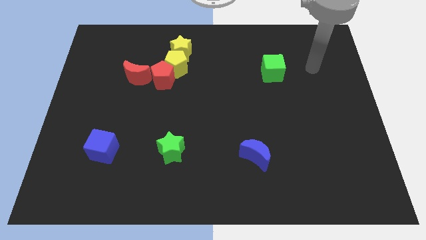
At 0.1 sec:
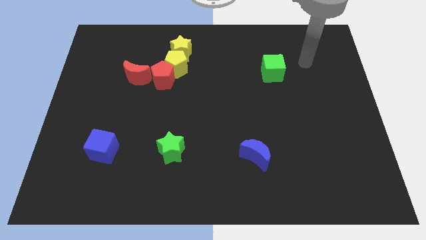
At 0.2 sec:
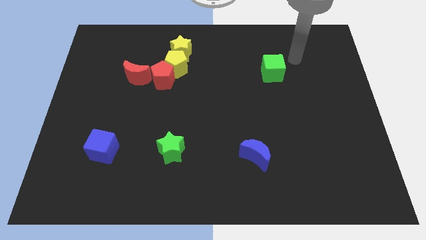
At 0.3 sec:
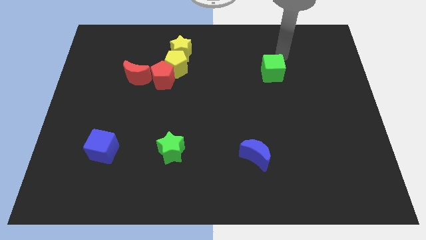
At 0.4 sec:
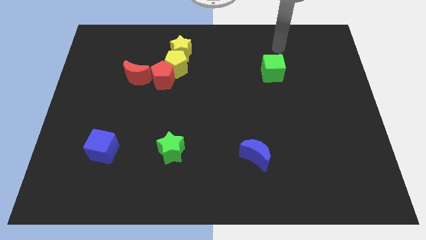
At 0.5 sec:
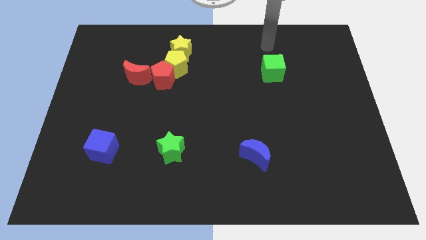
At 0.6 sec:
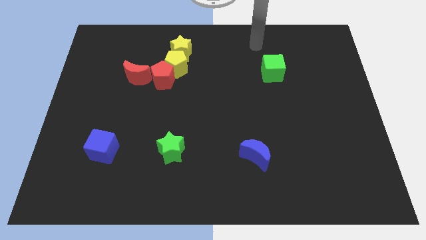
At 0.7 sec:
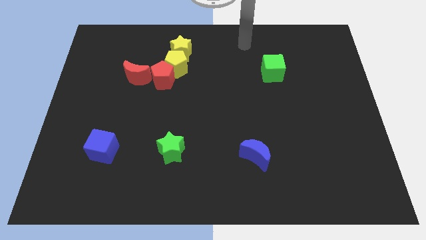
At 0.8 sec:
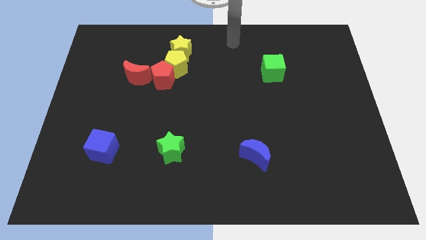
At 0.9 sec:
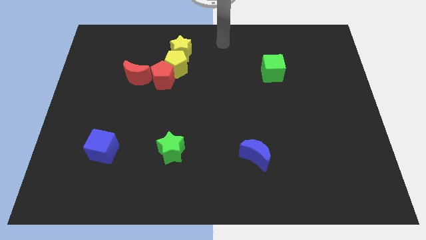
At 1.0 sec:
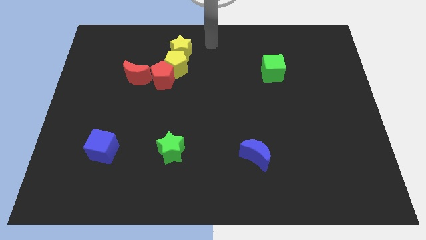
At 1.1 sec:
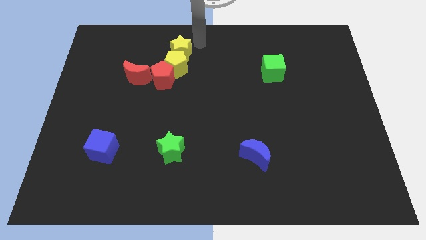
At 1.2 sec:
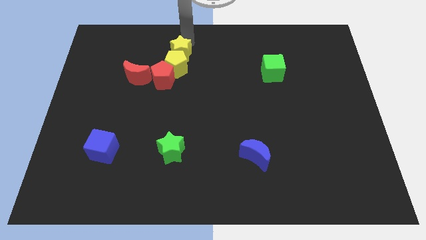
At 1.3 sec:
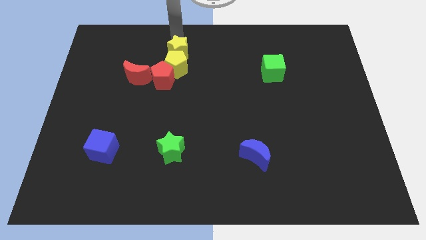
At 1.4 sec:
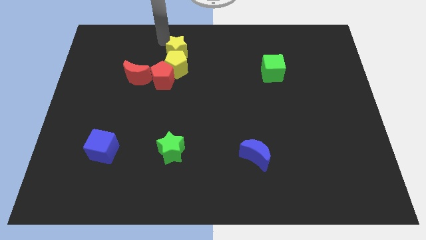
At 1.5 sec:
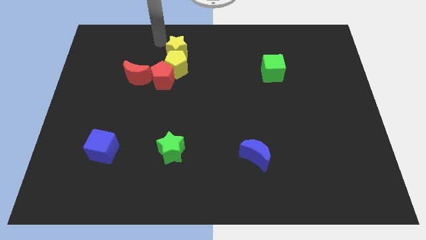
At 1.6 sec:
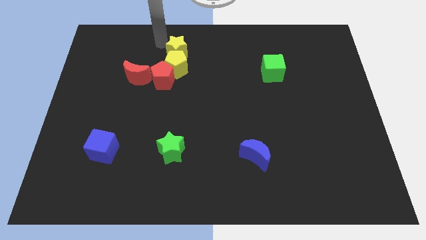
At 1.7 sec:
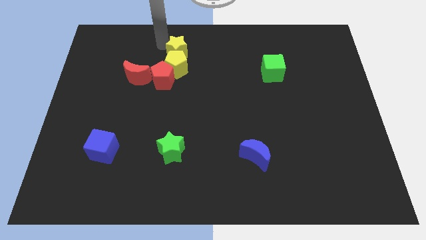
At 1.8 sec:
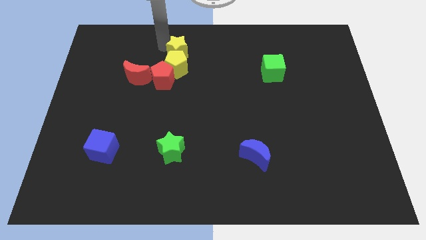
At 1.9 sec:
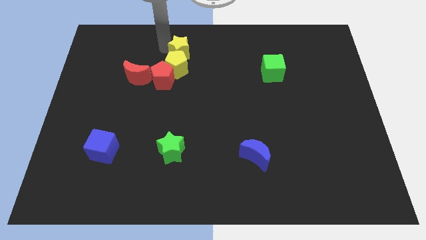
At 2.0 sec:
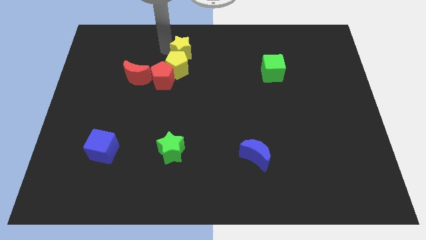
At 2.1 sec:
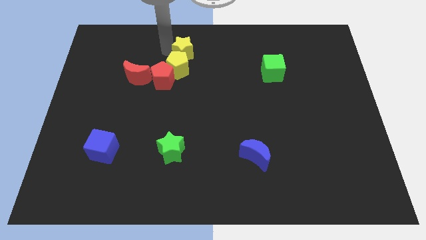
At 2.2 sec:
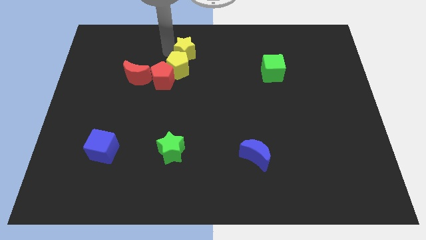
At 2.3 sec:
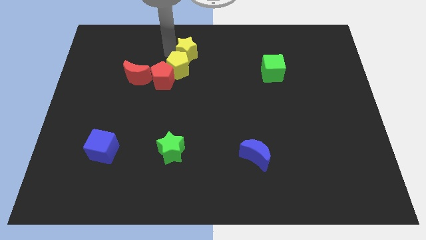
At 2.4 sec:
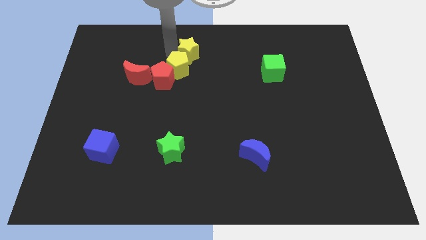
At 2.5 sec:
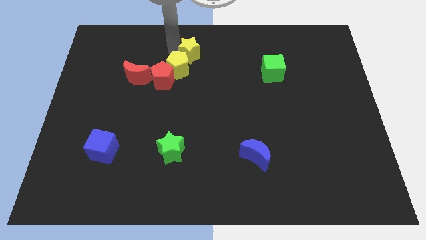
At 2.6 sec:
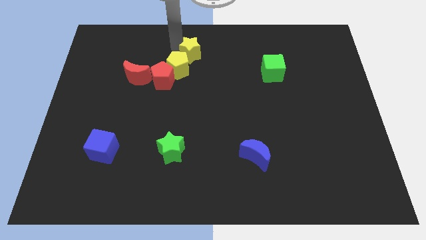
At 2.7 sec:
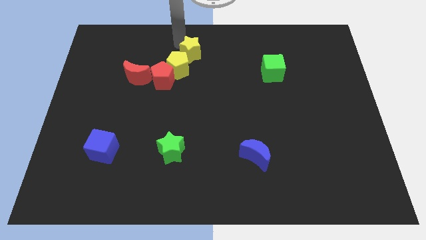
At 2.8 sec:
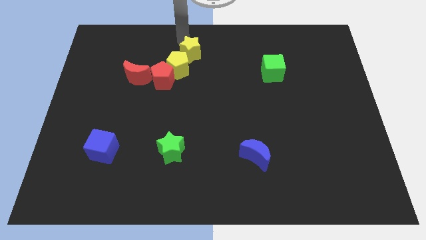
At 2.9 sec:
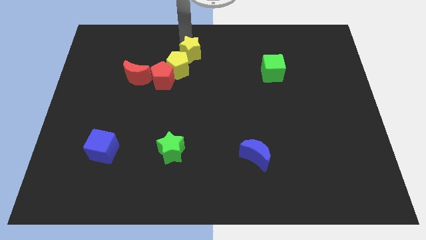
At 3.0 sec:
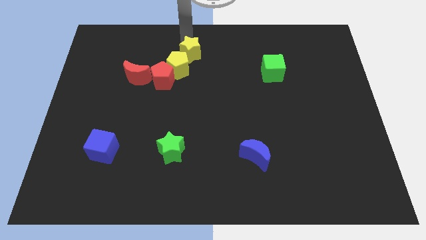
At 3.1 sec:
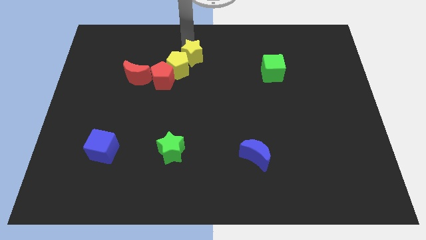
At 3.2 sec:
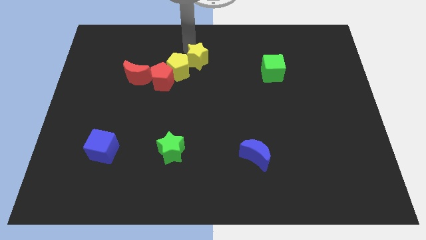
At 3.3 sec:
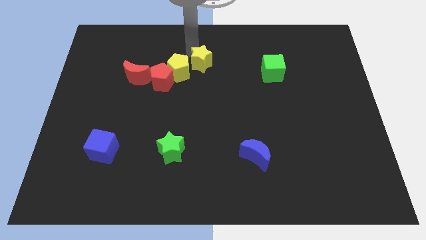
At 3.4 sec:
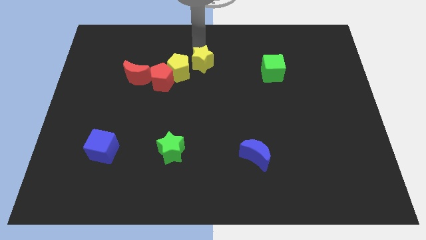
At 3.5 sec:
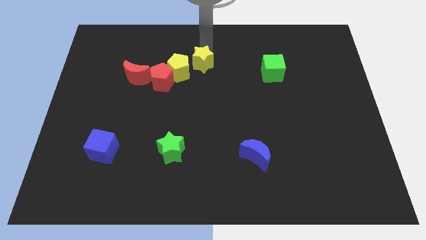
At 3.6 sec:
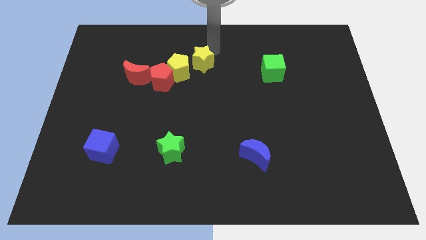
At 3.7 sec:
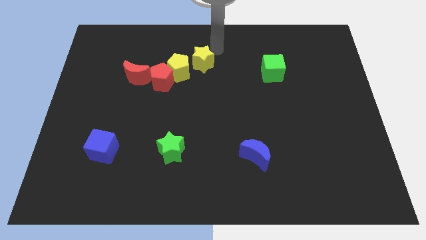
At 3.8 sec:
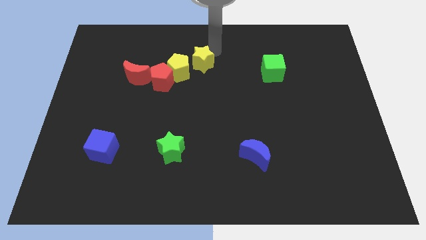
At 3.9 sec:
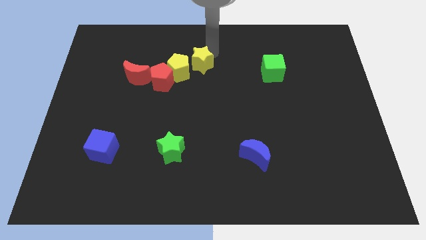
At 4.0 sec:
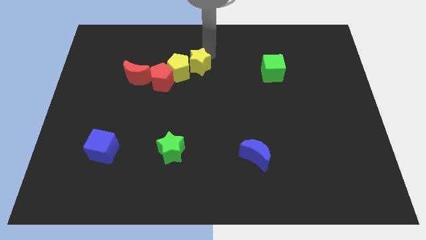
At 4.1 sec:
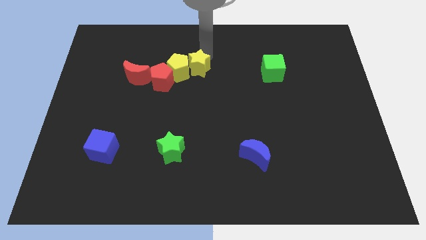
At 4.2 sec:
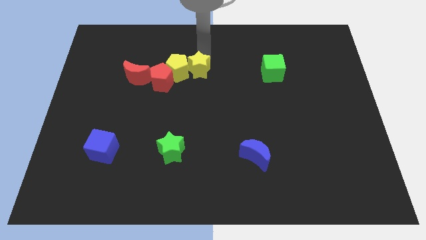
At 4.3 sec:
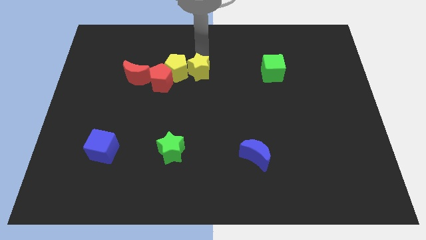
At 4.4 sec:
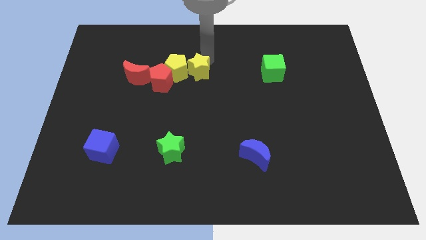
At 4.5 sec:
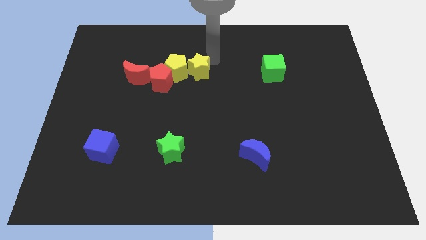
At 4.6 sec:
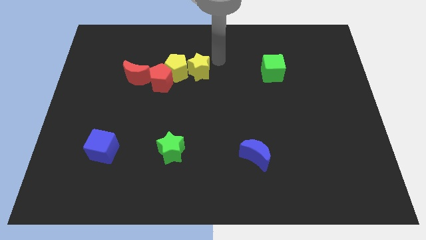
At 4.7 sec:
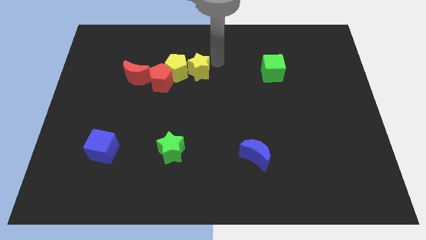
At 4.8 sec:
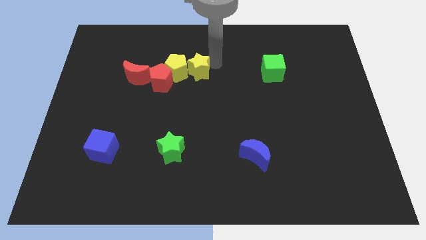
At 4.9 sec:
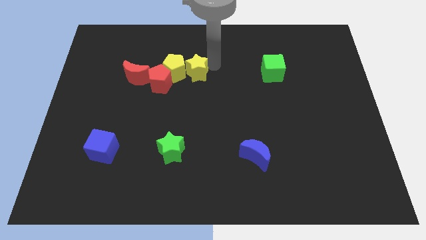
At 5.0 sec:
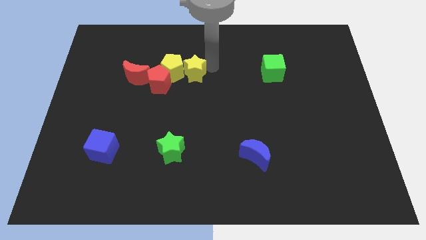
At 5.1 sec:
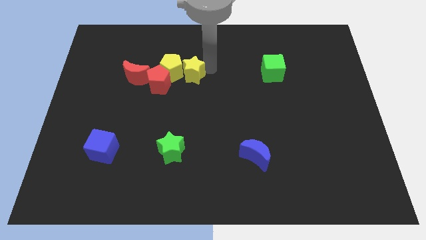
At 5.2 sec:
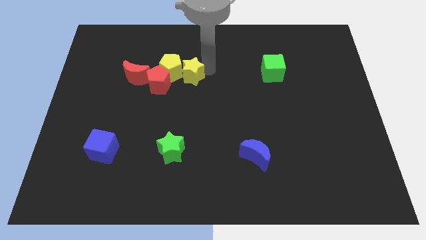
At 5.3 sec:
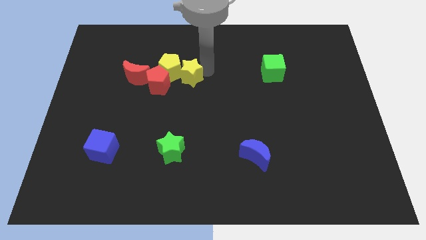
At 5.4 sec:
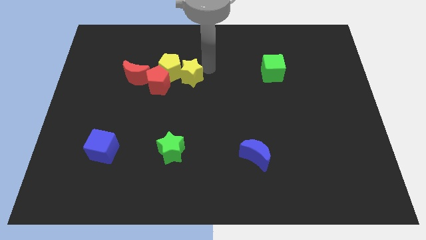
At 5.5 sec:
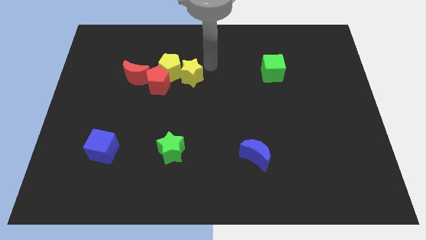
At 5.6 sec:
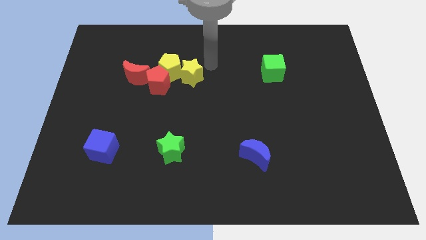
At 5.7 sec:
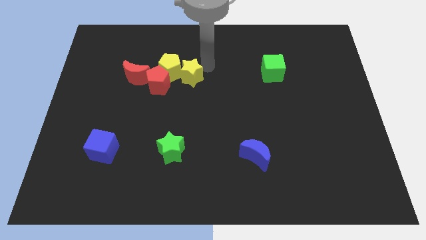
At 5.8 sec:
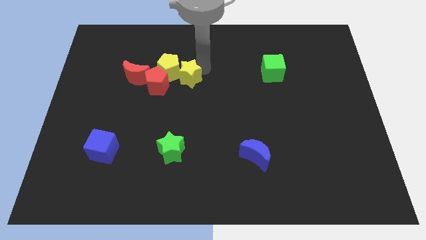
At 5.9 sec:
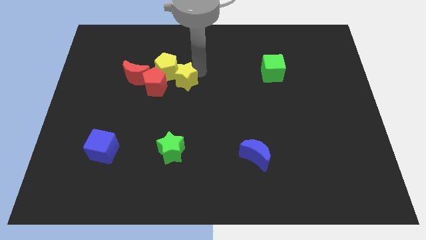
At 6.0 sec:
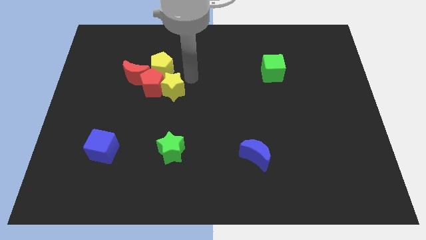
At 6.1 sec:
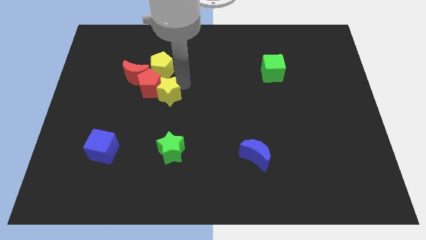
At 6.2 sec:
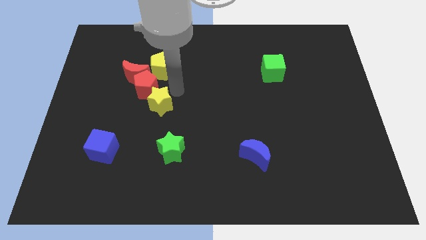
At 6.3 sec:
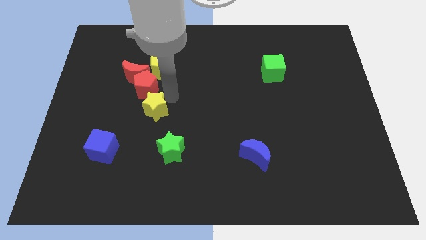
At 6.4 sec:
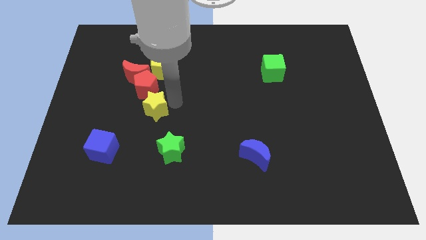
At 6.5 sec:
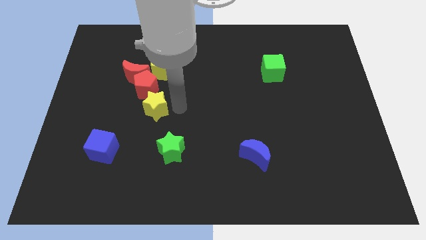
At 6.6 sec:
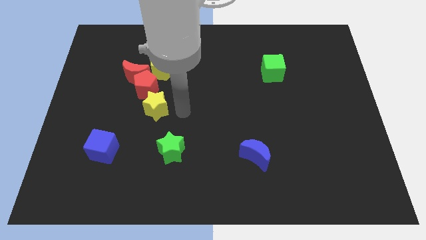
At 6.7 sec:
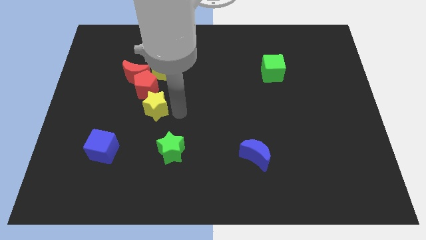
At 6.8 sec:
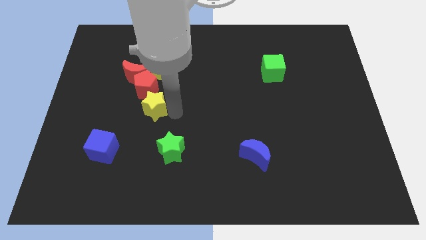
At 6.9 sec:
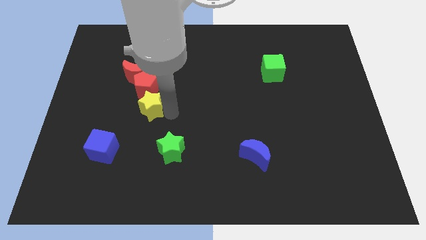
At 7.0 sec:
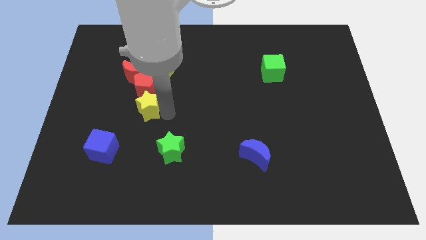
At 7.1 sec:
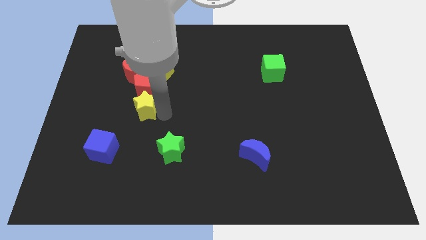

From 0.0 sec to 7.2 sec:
move the yellow star to the bottom left of the red pentagon
